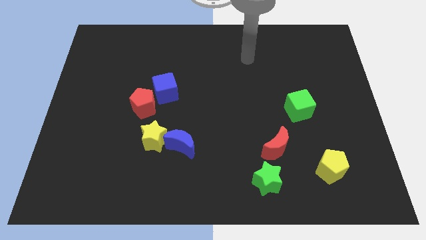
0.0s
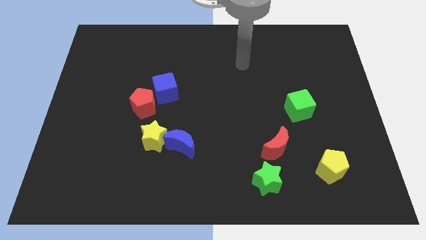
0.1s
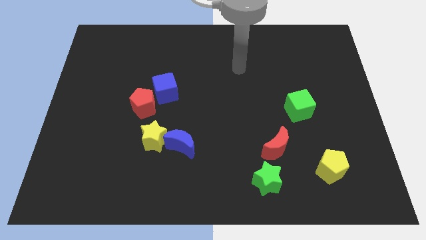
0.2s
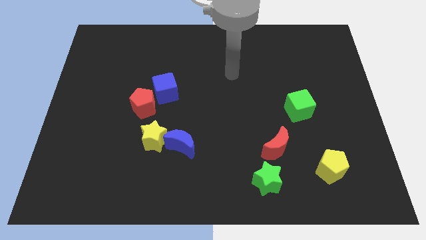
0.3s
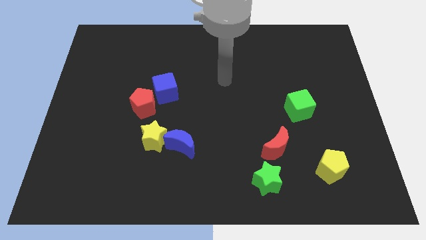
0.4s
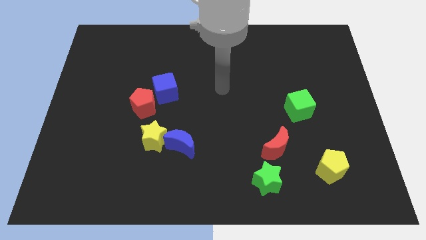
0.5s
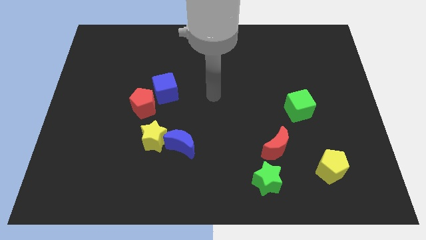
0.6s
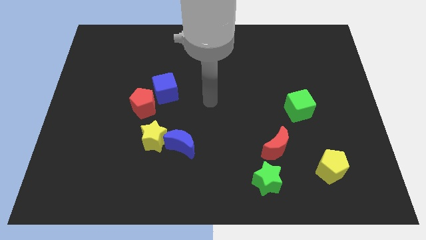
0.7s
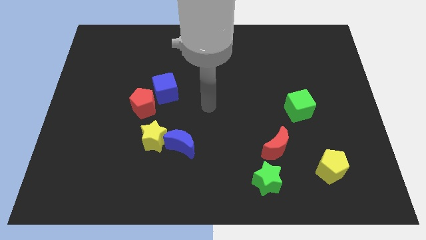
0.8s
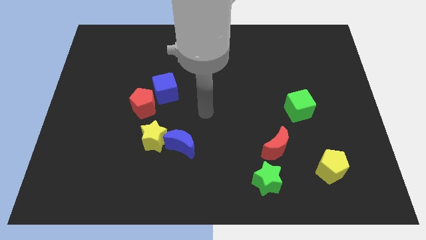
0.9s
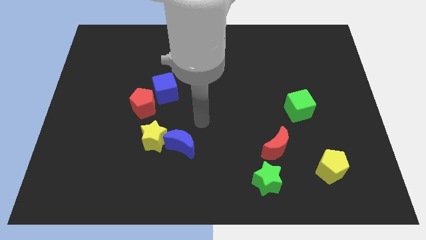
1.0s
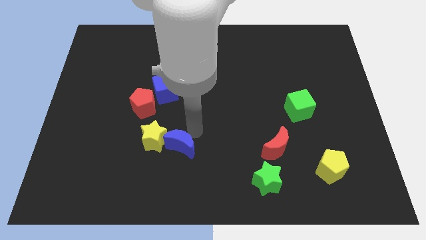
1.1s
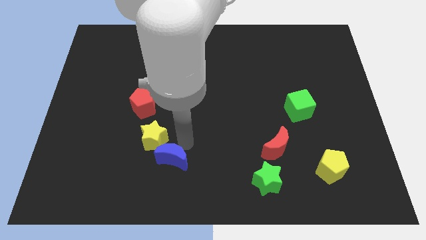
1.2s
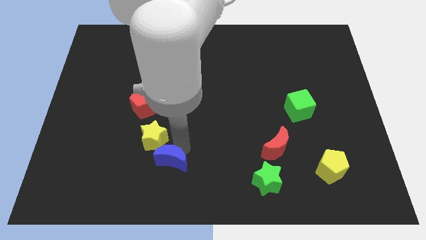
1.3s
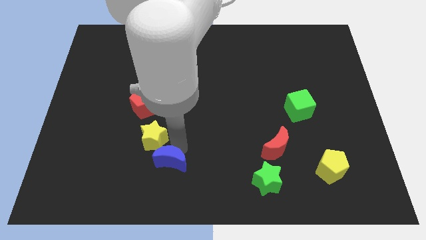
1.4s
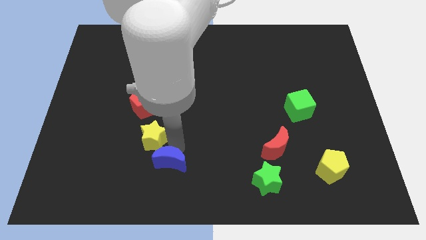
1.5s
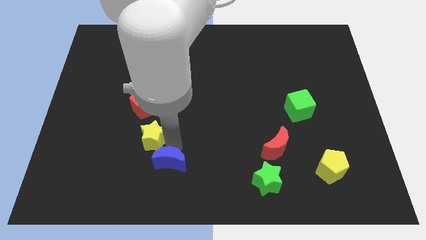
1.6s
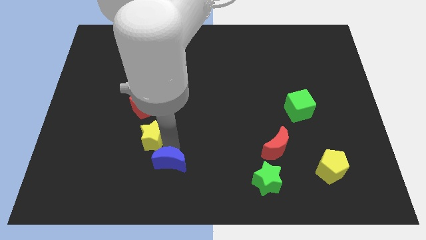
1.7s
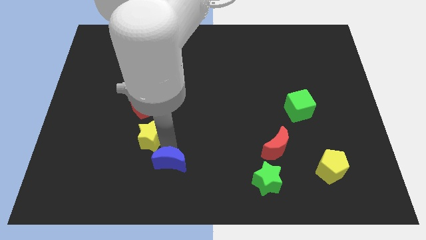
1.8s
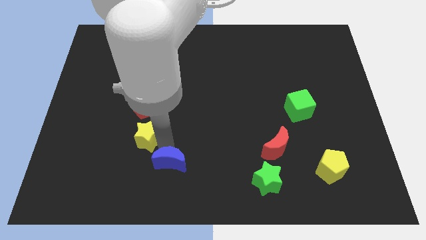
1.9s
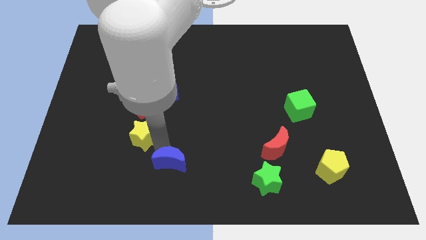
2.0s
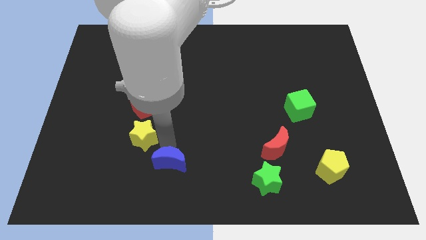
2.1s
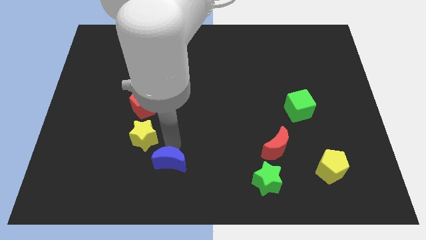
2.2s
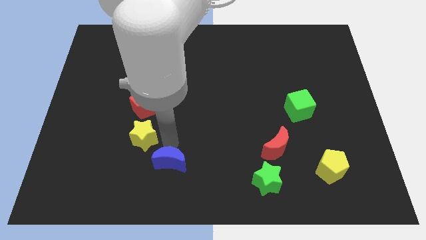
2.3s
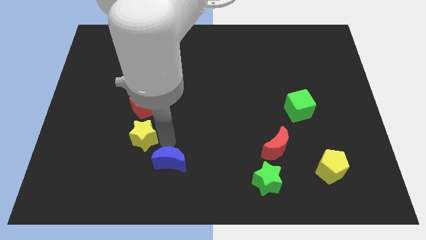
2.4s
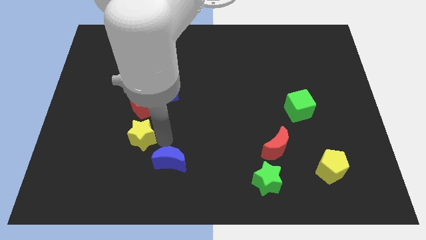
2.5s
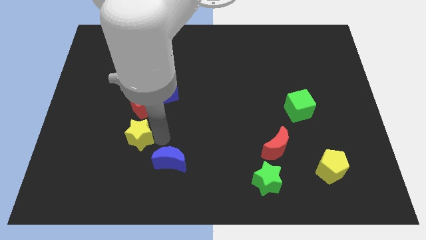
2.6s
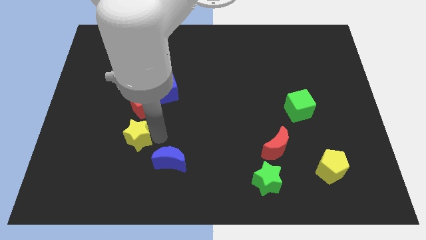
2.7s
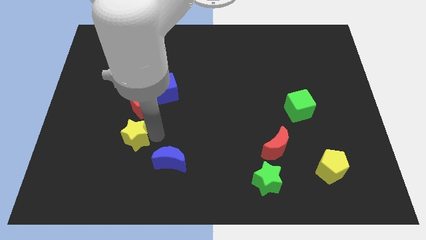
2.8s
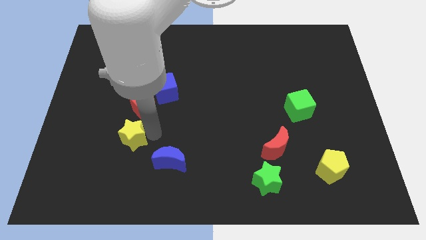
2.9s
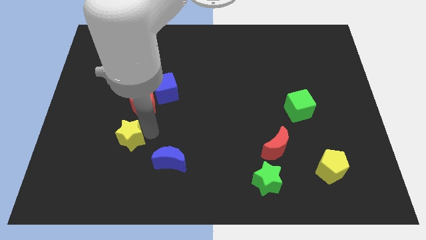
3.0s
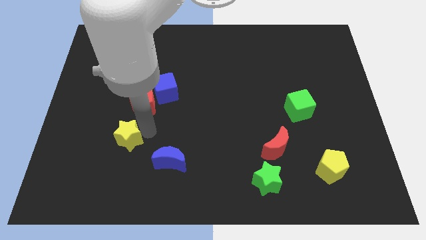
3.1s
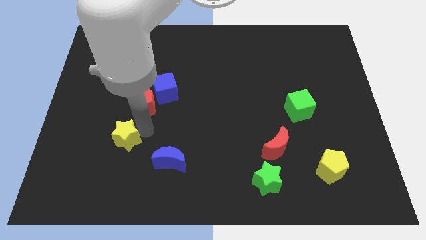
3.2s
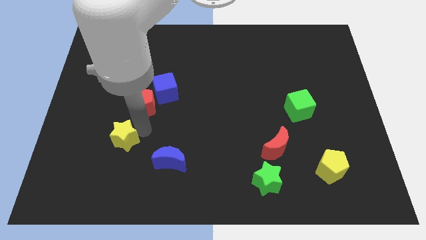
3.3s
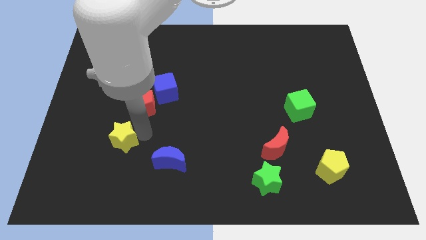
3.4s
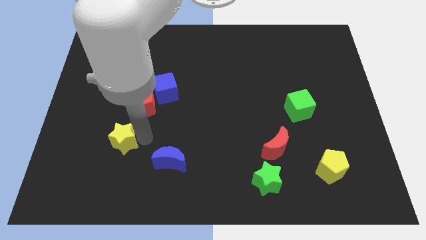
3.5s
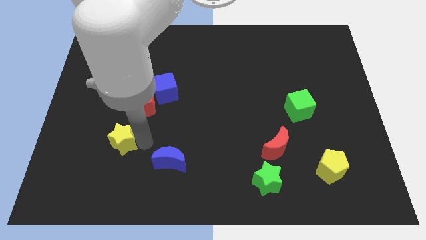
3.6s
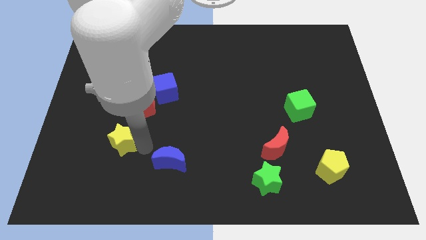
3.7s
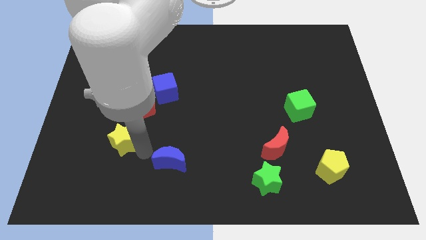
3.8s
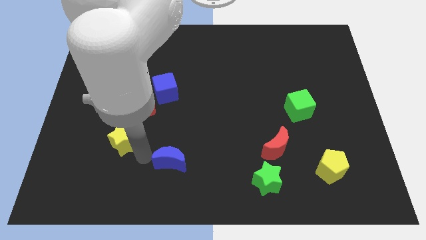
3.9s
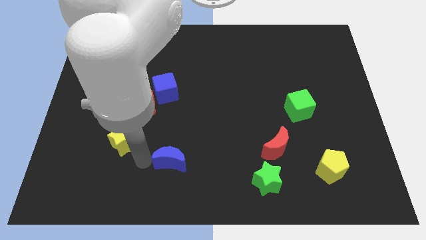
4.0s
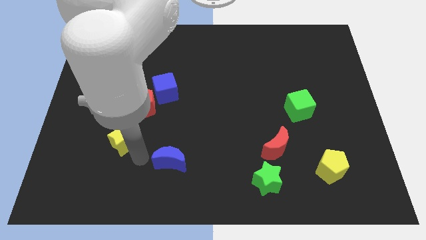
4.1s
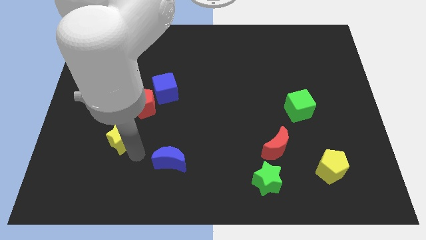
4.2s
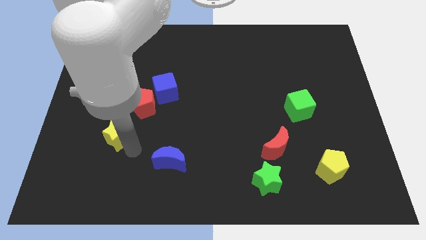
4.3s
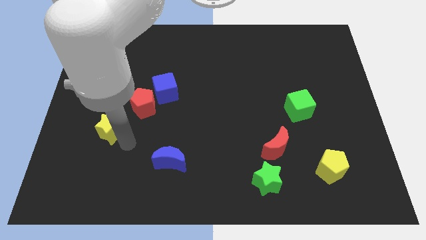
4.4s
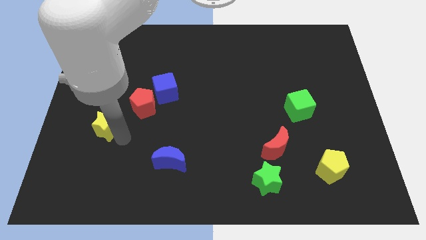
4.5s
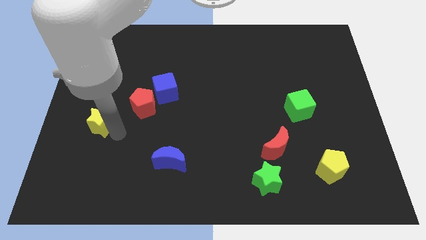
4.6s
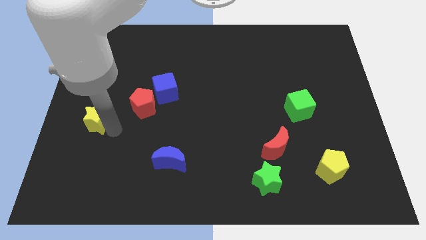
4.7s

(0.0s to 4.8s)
put the yellow star to the center left

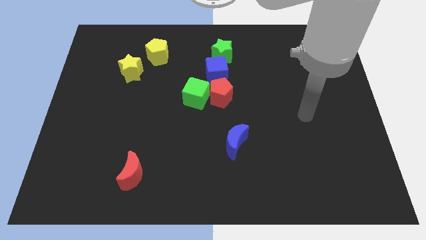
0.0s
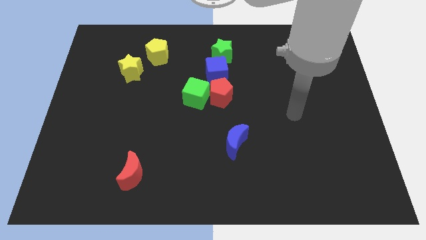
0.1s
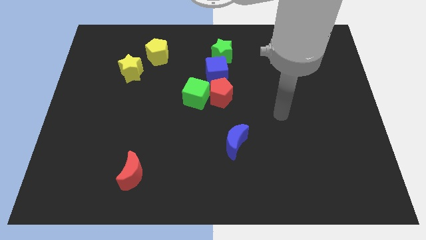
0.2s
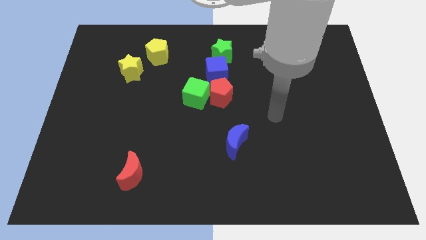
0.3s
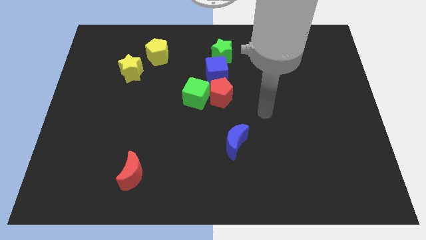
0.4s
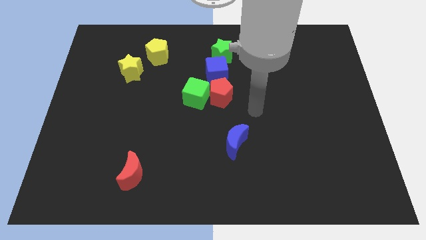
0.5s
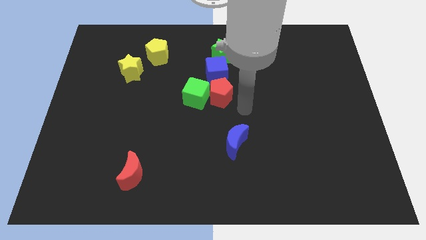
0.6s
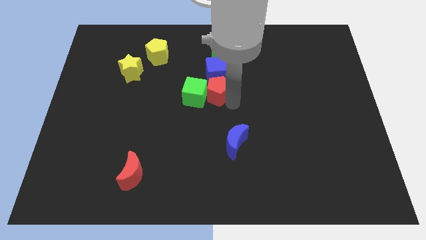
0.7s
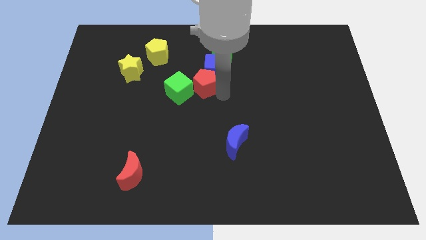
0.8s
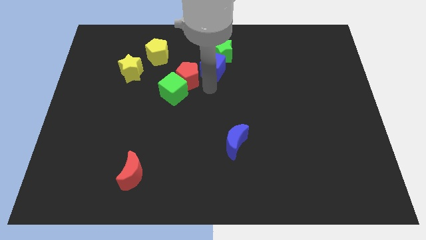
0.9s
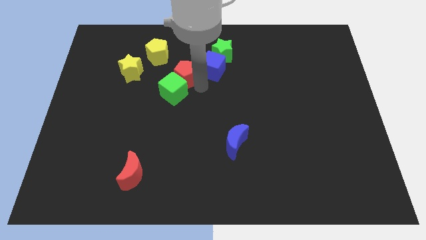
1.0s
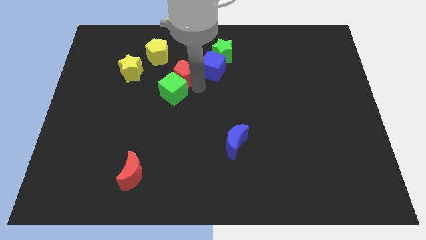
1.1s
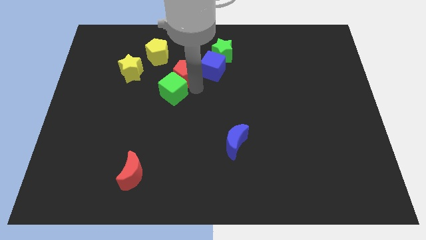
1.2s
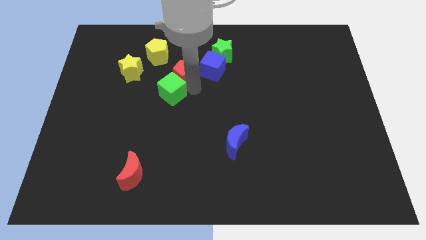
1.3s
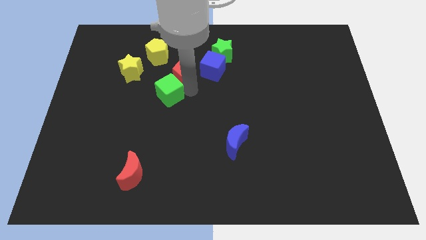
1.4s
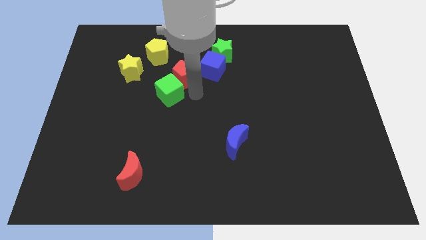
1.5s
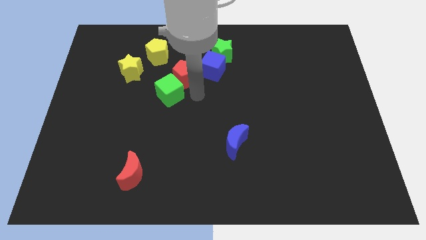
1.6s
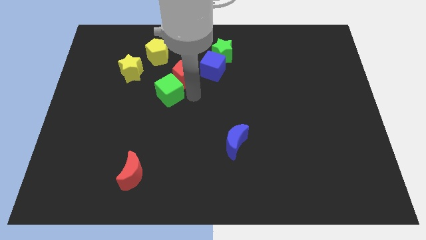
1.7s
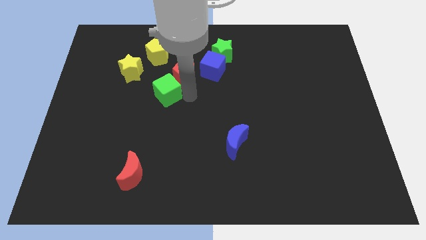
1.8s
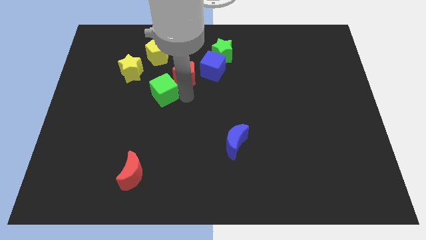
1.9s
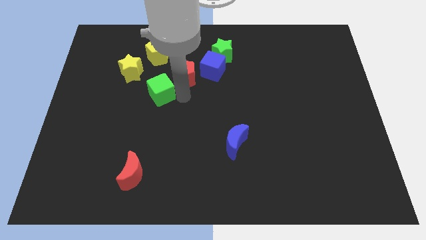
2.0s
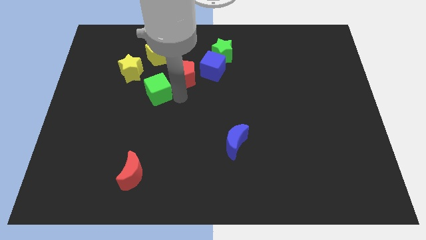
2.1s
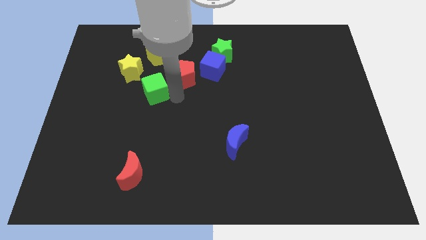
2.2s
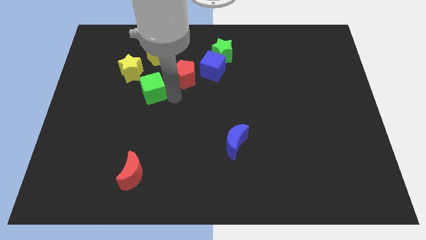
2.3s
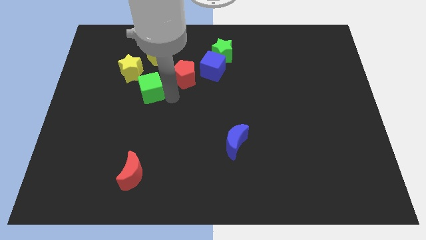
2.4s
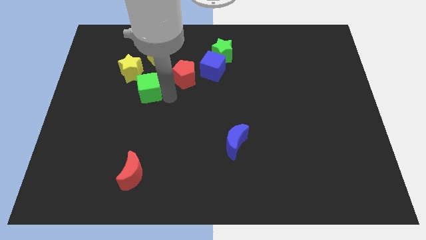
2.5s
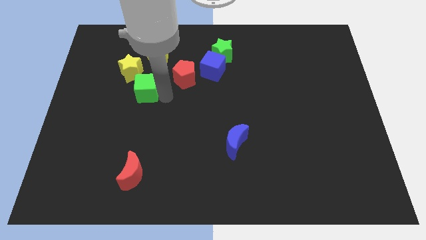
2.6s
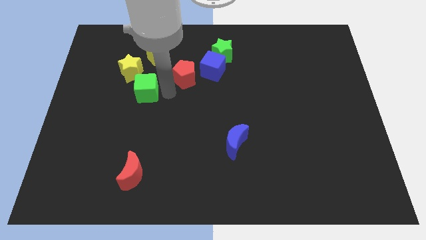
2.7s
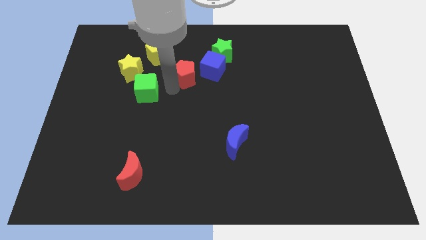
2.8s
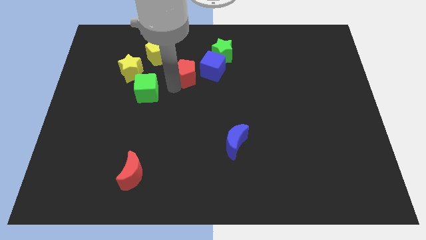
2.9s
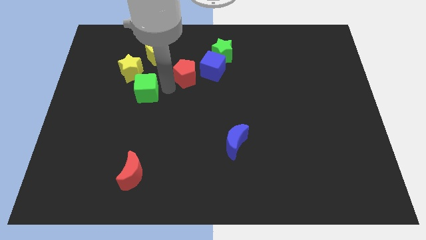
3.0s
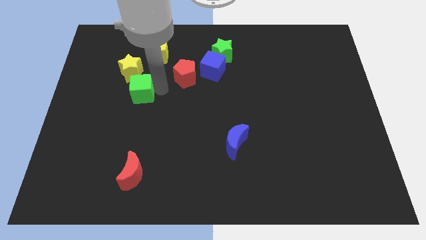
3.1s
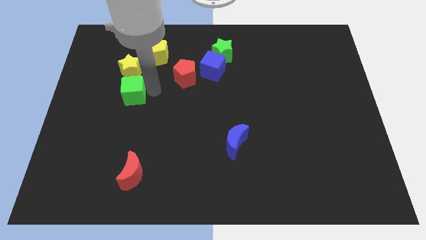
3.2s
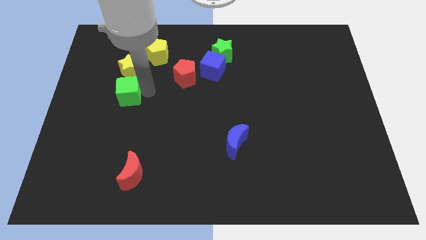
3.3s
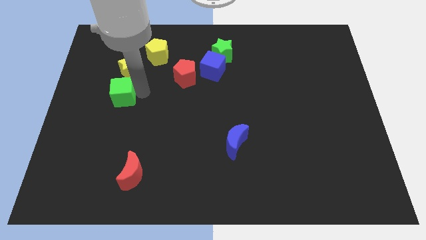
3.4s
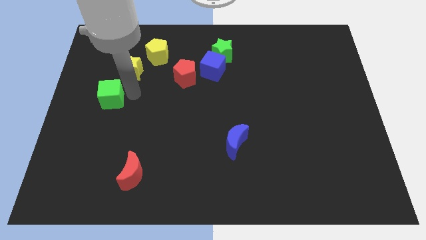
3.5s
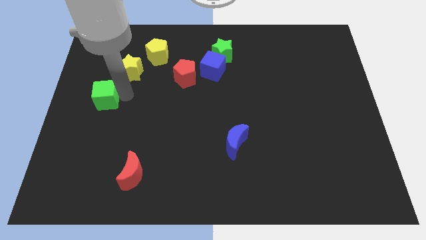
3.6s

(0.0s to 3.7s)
move the green cube to the left side of the board
